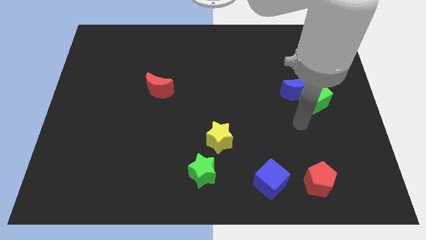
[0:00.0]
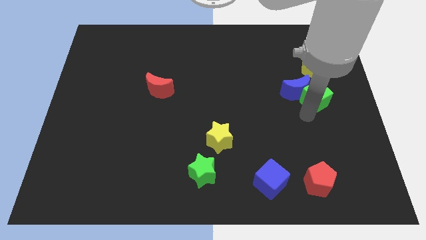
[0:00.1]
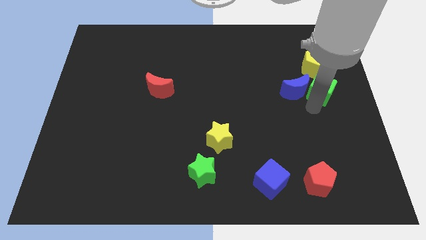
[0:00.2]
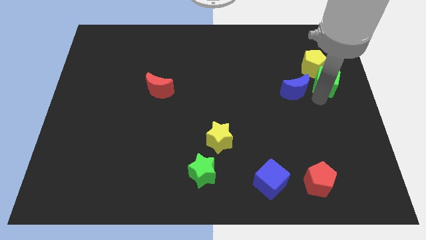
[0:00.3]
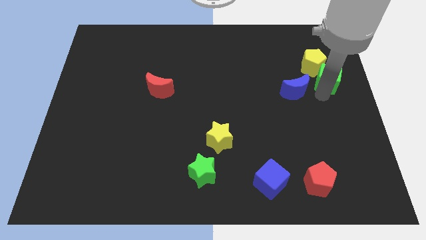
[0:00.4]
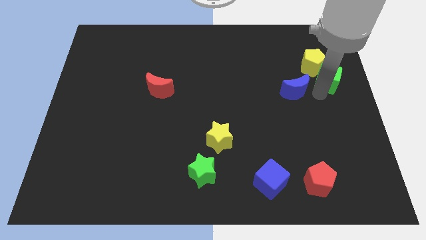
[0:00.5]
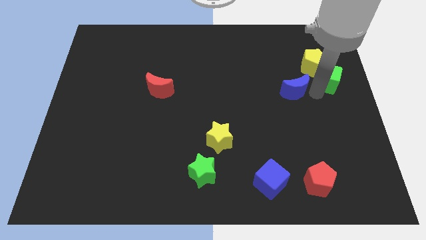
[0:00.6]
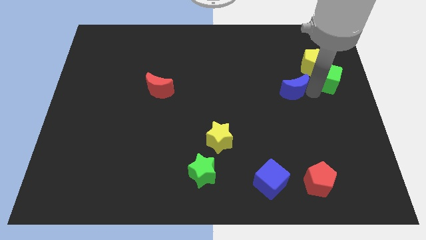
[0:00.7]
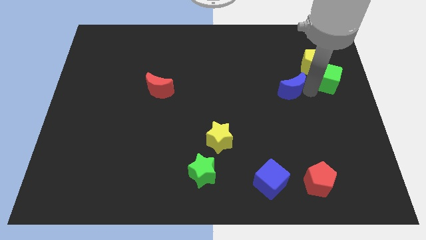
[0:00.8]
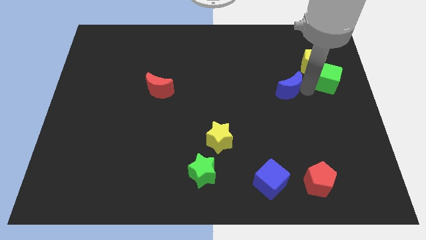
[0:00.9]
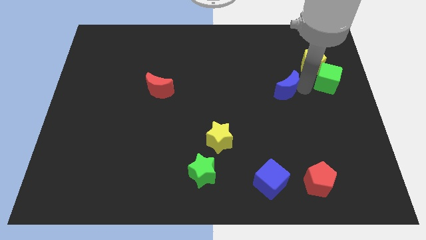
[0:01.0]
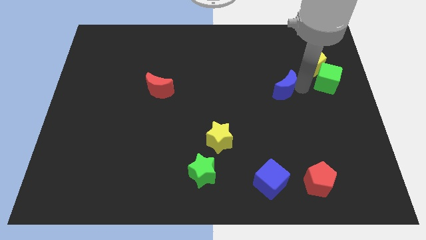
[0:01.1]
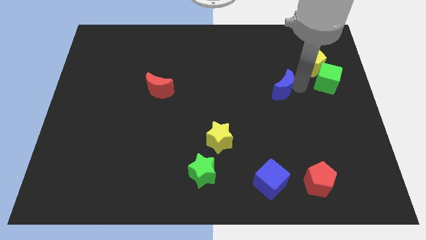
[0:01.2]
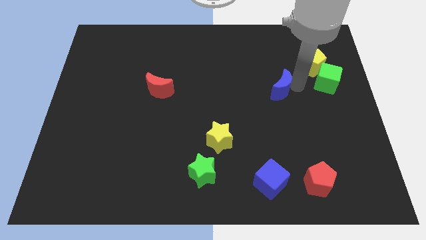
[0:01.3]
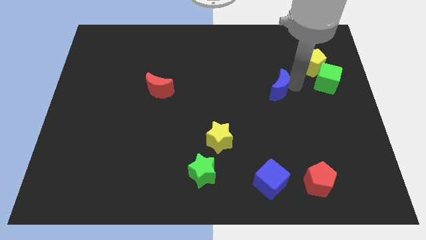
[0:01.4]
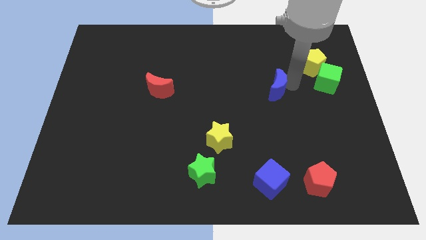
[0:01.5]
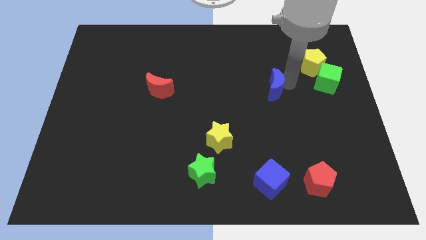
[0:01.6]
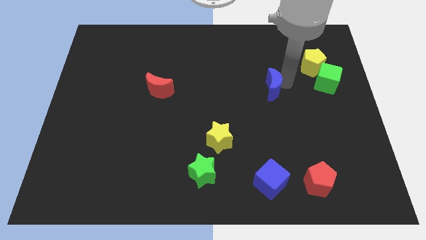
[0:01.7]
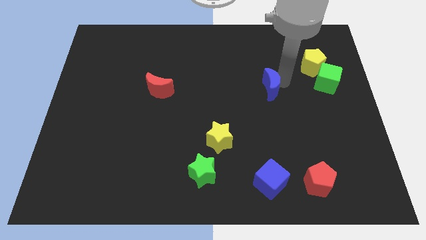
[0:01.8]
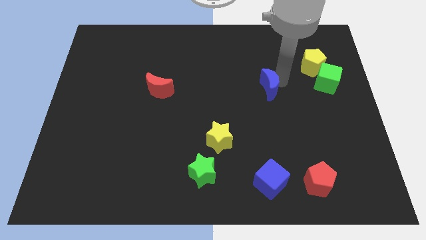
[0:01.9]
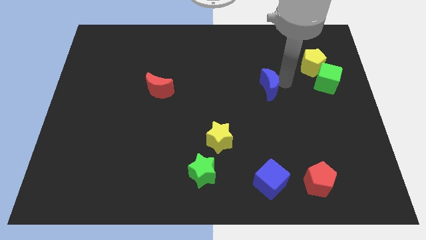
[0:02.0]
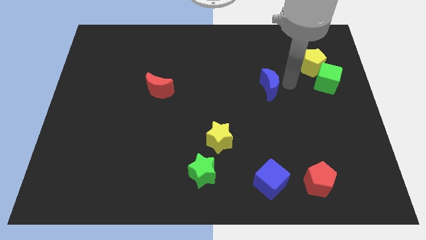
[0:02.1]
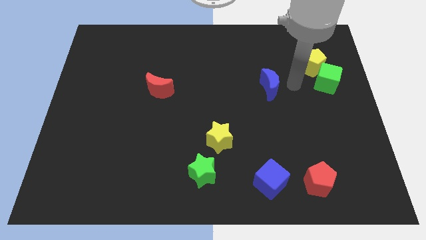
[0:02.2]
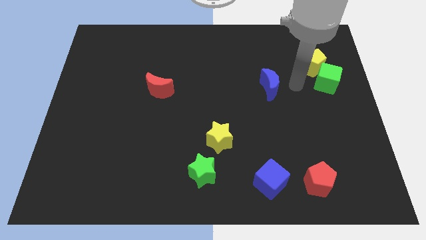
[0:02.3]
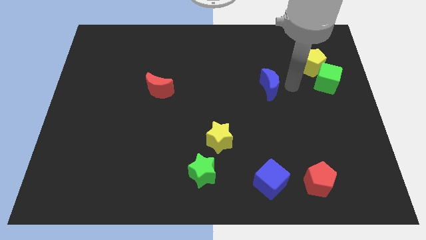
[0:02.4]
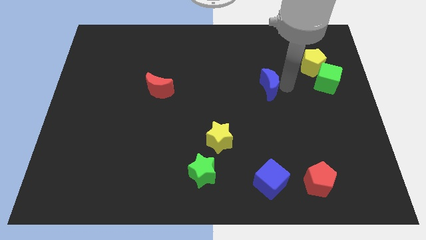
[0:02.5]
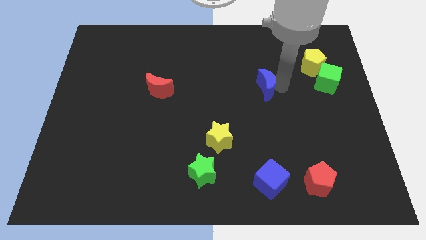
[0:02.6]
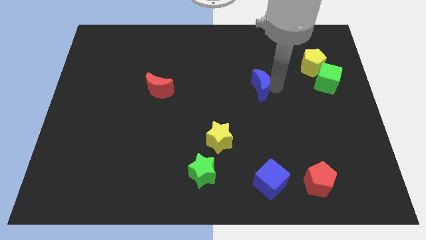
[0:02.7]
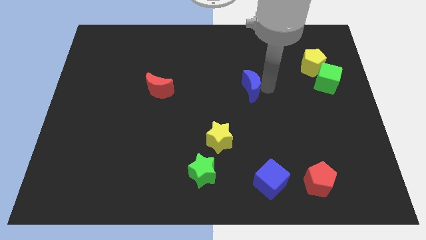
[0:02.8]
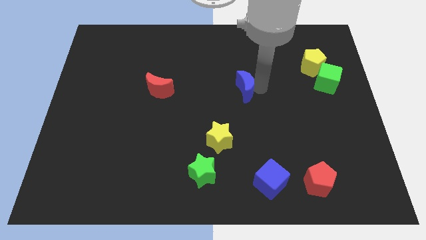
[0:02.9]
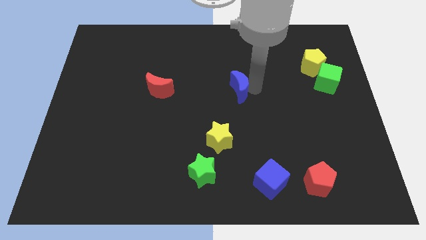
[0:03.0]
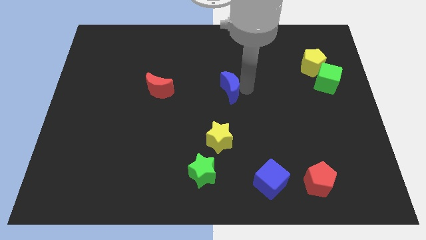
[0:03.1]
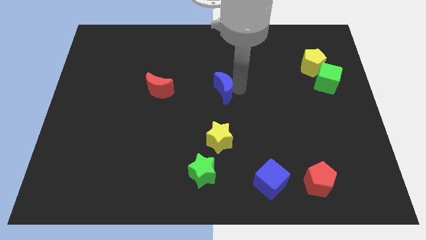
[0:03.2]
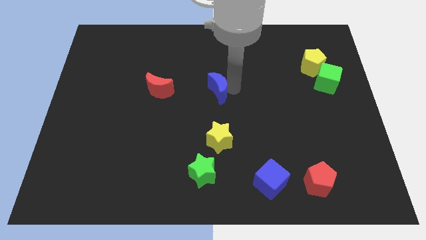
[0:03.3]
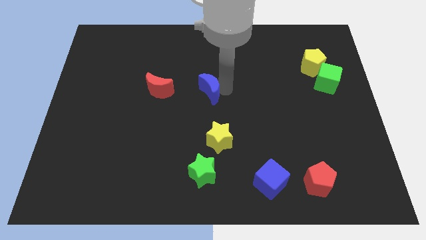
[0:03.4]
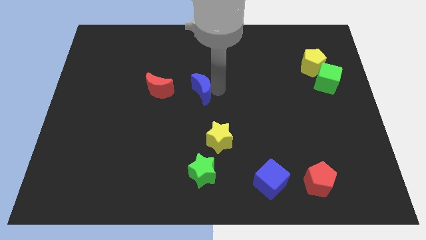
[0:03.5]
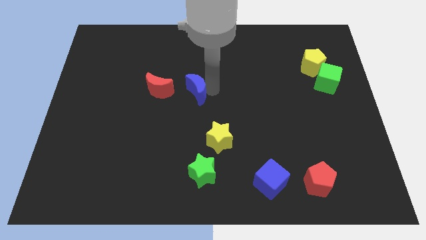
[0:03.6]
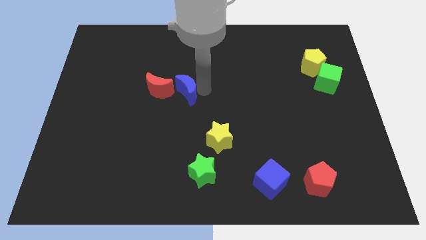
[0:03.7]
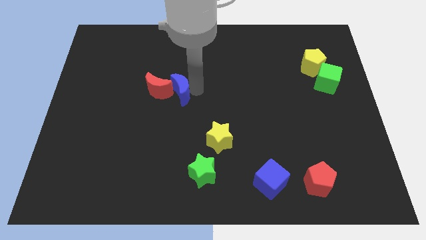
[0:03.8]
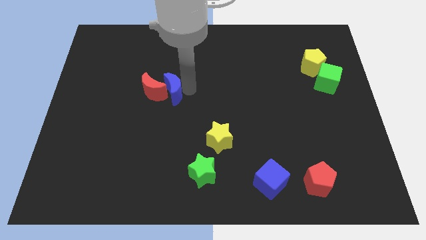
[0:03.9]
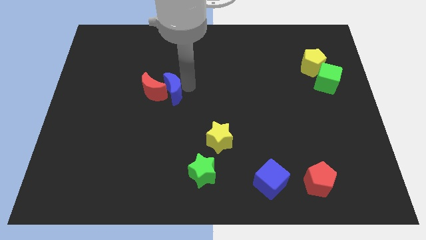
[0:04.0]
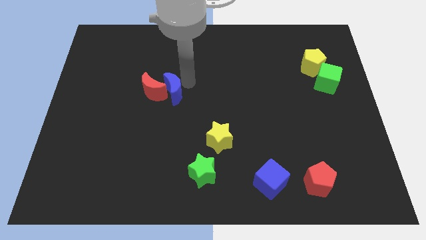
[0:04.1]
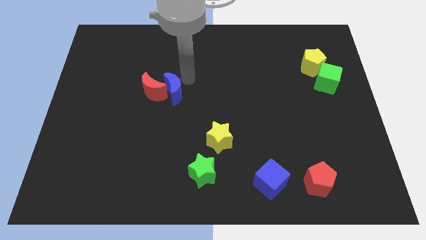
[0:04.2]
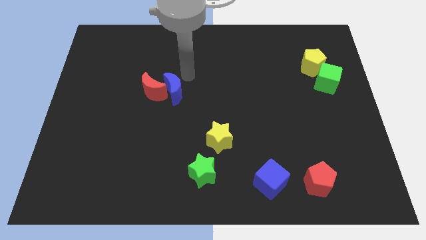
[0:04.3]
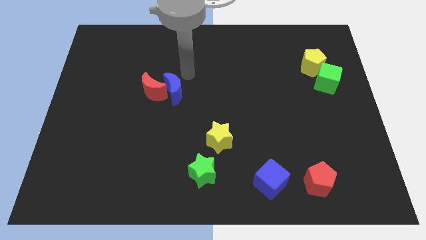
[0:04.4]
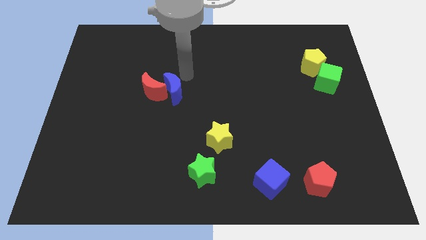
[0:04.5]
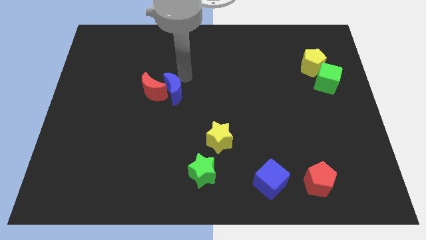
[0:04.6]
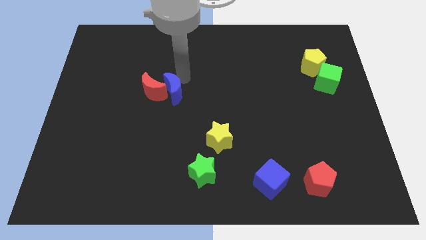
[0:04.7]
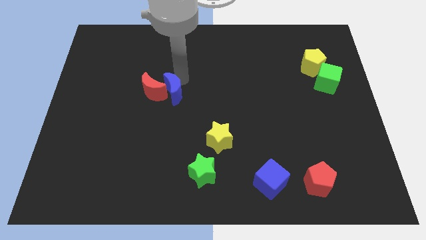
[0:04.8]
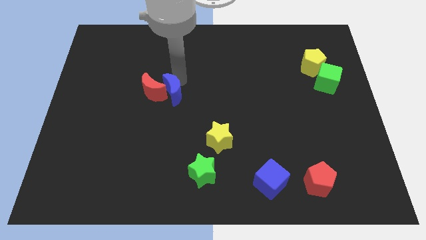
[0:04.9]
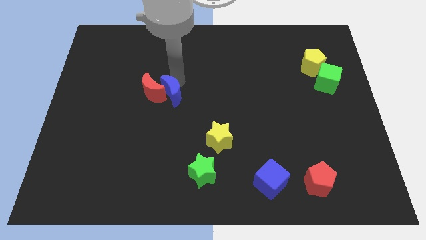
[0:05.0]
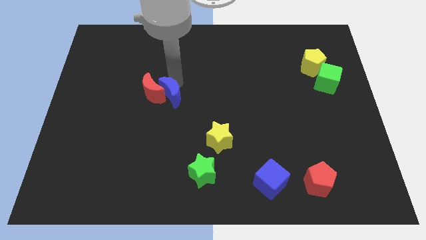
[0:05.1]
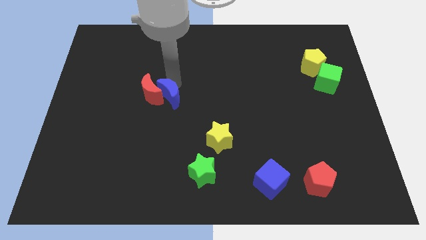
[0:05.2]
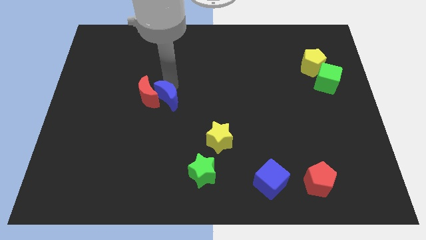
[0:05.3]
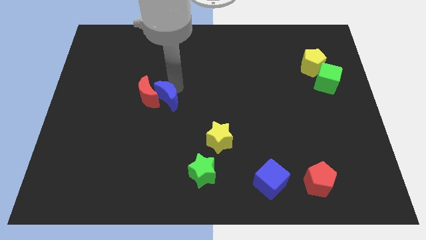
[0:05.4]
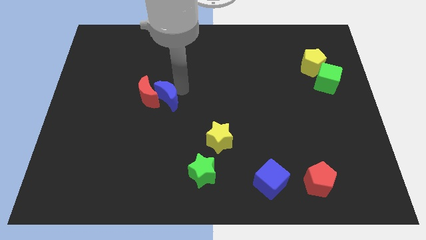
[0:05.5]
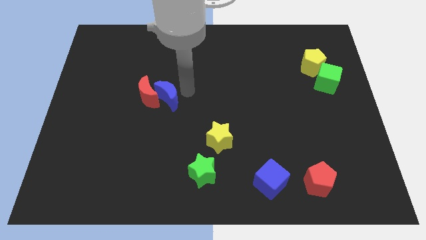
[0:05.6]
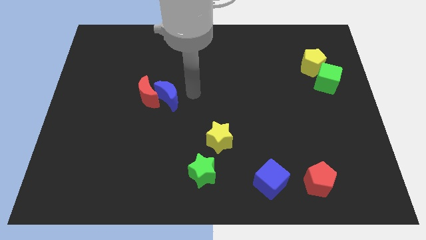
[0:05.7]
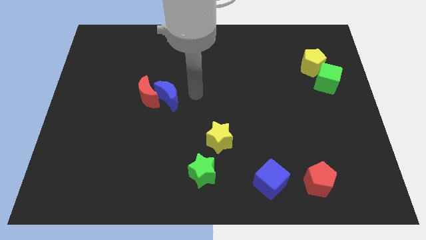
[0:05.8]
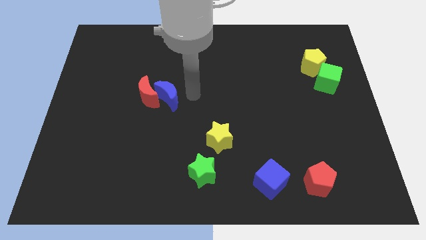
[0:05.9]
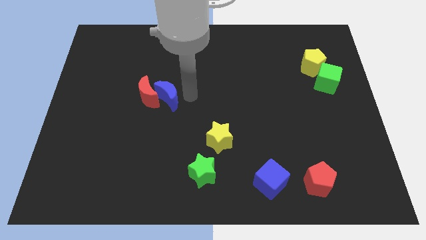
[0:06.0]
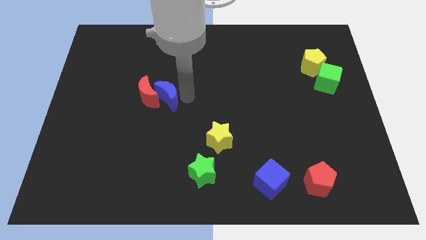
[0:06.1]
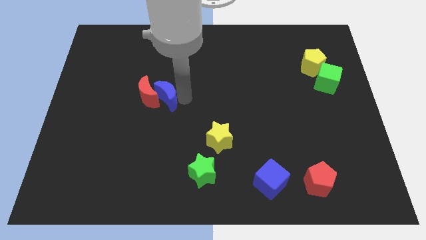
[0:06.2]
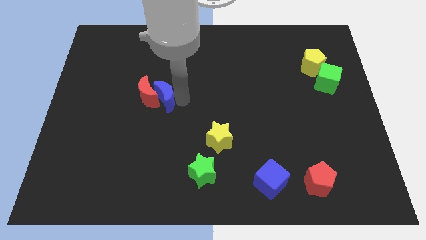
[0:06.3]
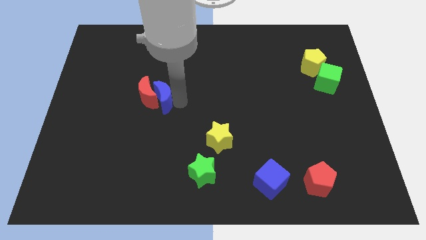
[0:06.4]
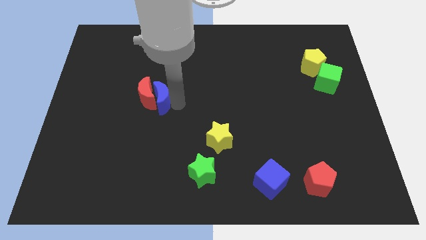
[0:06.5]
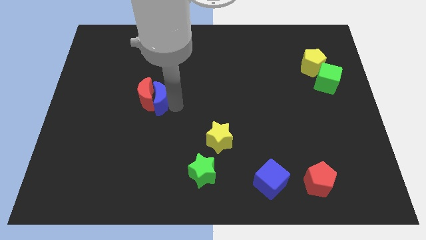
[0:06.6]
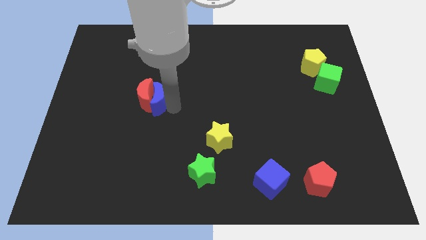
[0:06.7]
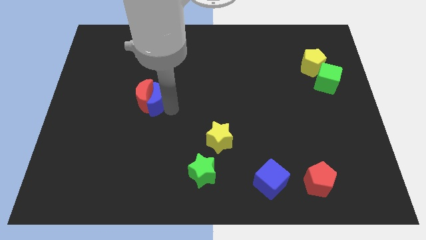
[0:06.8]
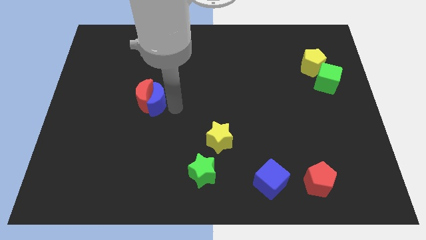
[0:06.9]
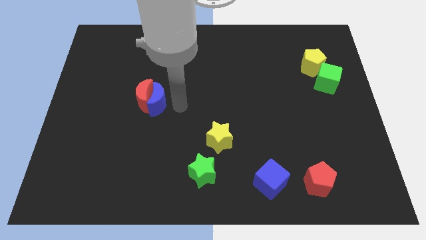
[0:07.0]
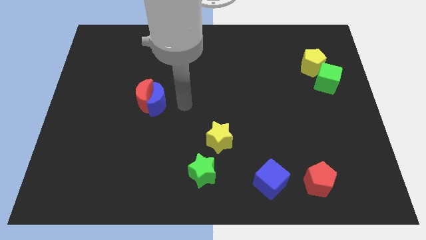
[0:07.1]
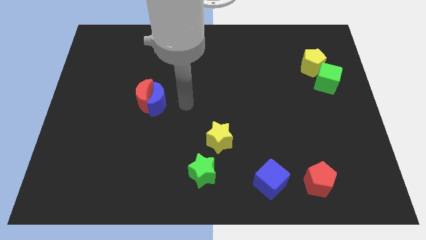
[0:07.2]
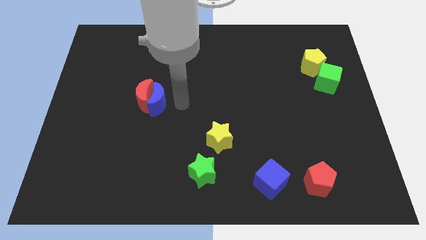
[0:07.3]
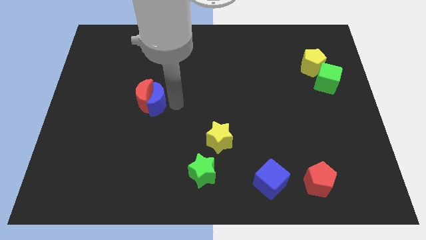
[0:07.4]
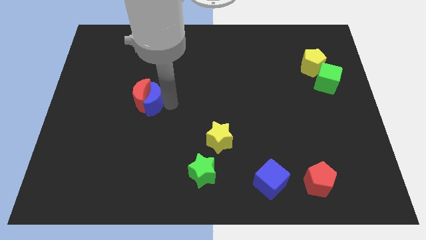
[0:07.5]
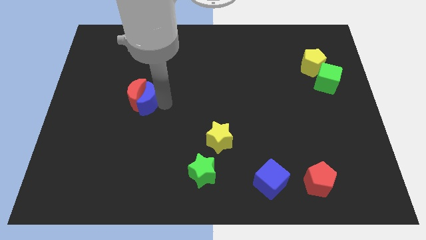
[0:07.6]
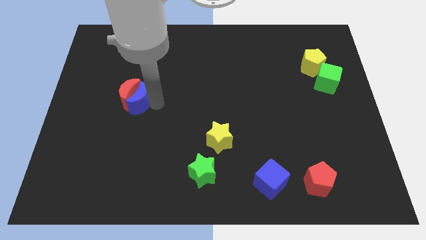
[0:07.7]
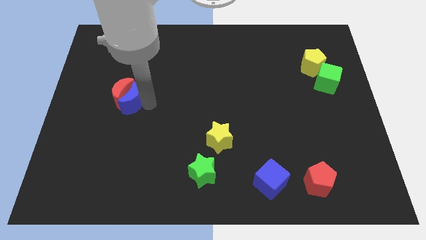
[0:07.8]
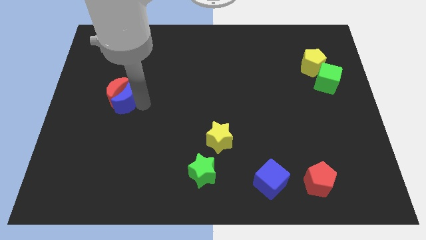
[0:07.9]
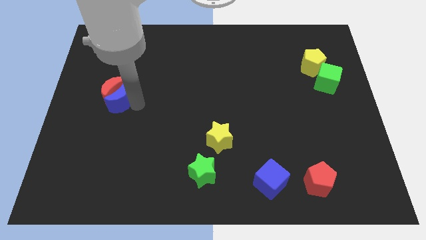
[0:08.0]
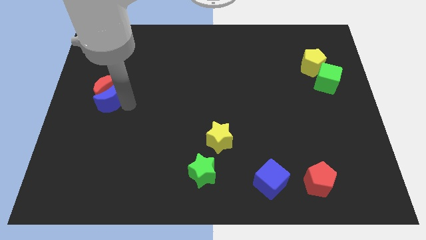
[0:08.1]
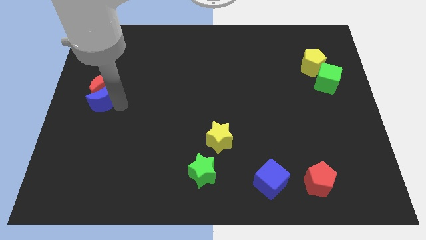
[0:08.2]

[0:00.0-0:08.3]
push the blue moon to the center left
